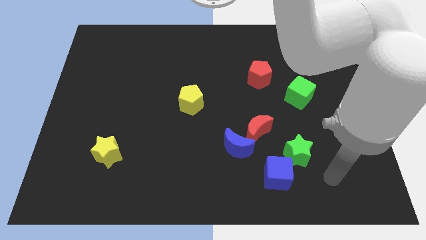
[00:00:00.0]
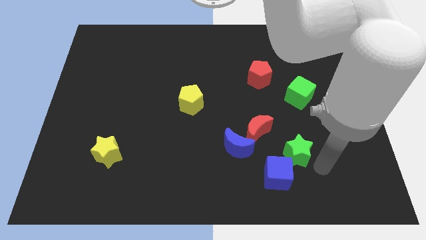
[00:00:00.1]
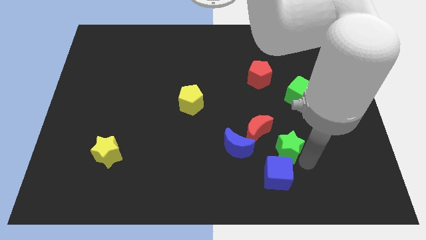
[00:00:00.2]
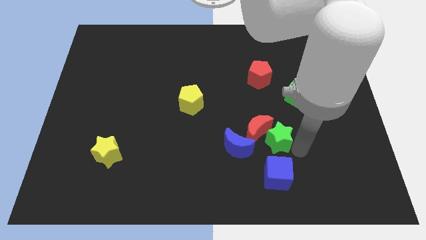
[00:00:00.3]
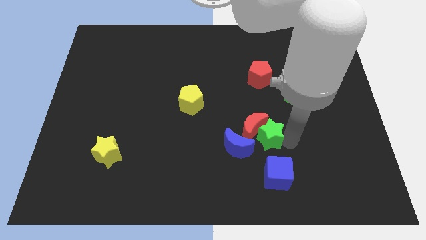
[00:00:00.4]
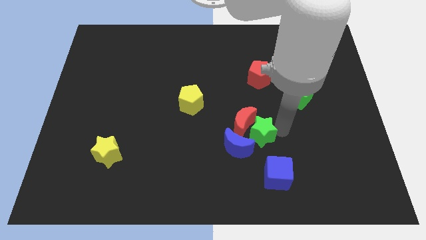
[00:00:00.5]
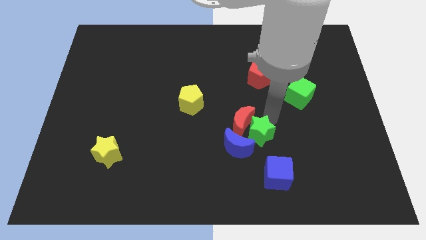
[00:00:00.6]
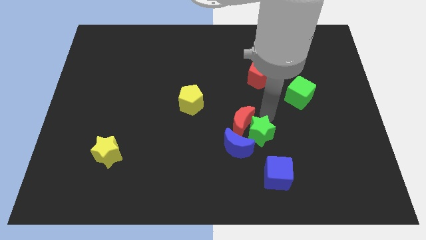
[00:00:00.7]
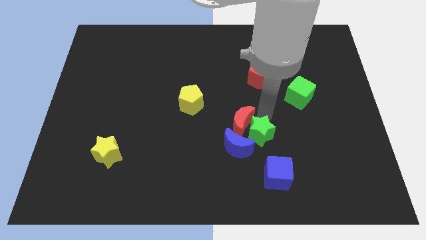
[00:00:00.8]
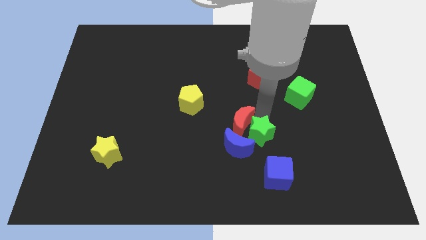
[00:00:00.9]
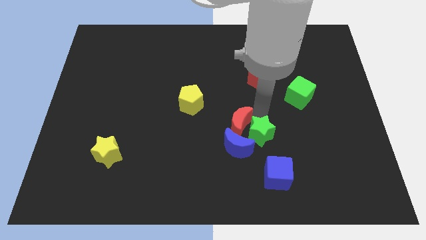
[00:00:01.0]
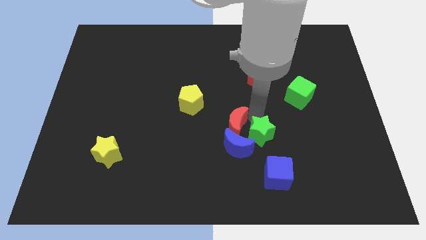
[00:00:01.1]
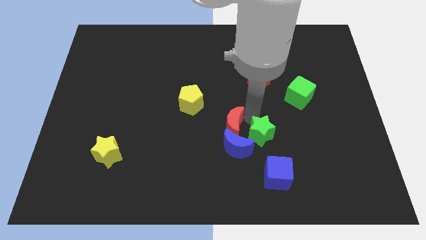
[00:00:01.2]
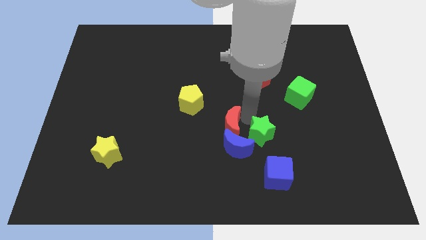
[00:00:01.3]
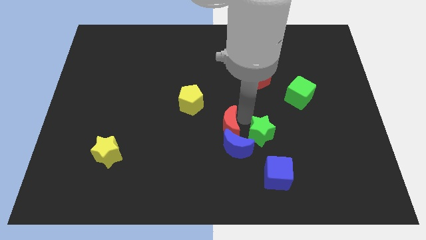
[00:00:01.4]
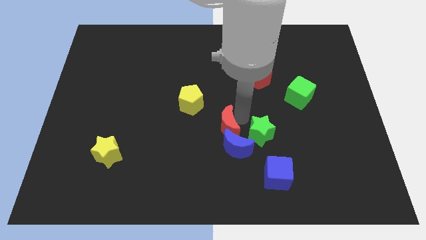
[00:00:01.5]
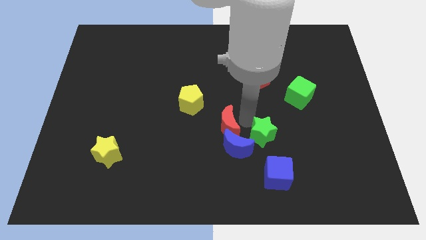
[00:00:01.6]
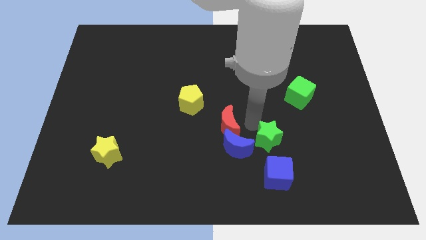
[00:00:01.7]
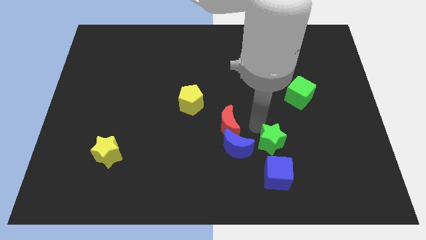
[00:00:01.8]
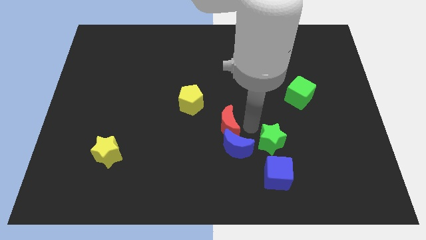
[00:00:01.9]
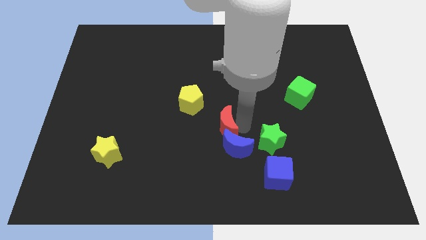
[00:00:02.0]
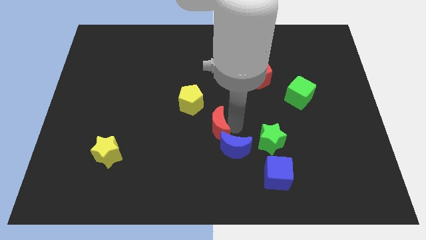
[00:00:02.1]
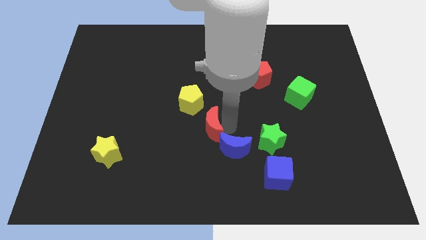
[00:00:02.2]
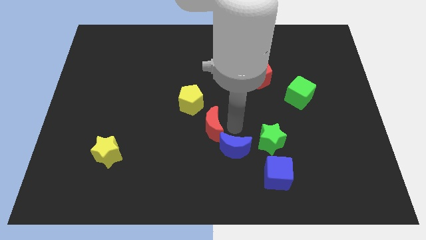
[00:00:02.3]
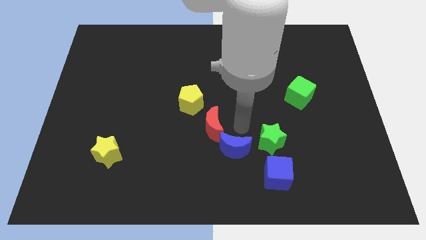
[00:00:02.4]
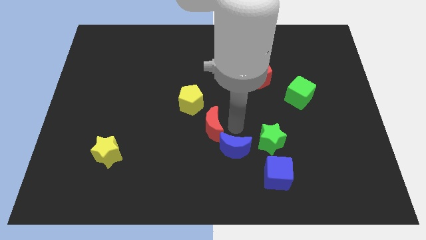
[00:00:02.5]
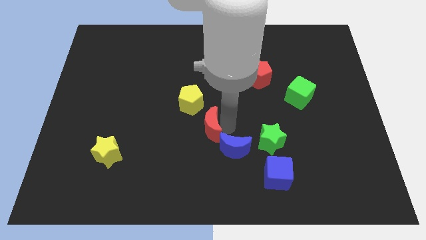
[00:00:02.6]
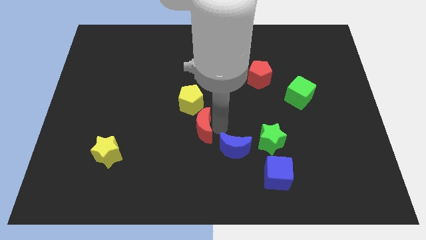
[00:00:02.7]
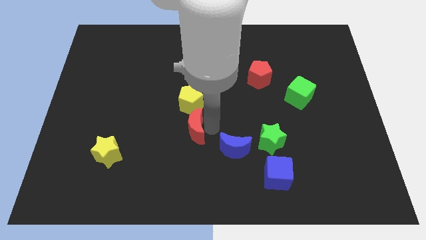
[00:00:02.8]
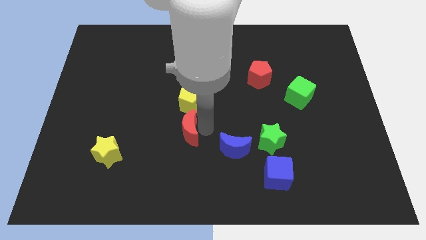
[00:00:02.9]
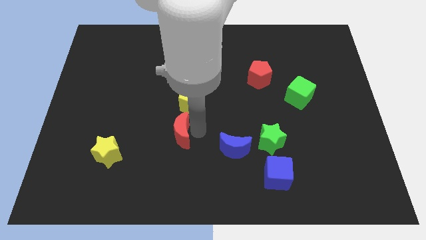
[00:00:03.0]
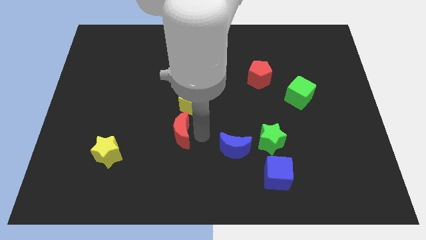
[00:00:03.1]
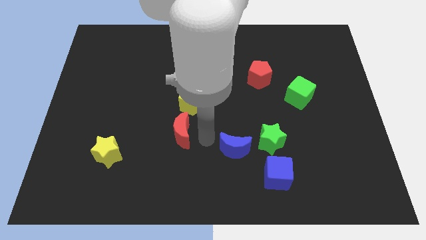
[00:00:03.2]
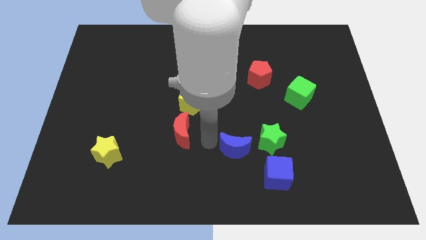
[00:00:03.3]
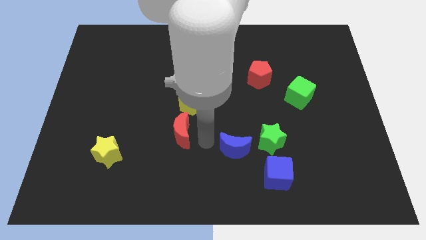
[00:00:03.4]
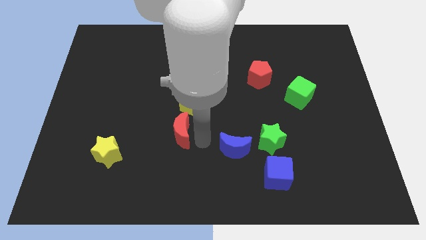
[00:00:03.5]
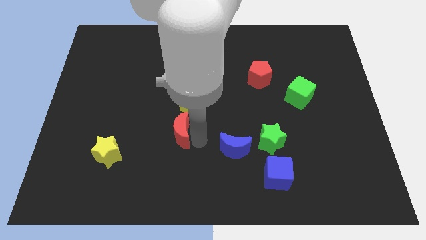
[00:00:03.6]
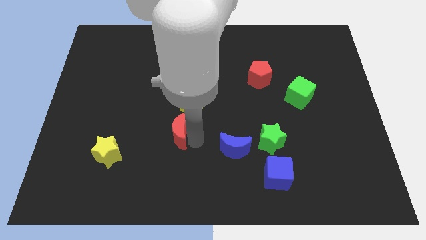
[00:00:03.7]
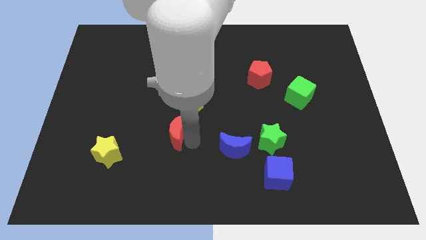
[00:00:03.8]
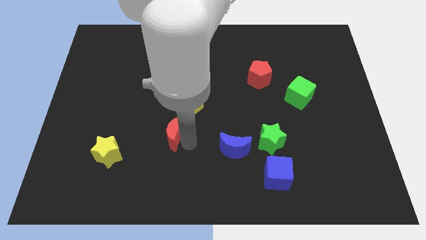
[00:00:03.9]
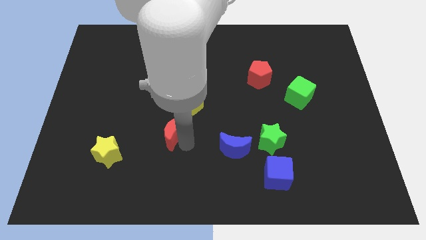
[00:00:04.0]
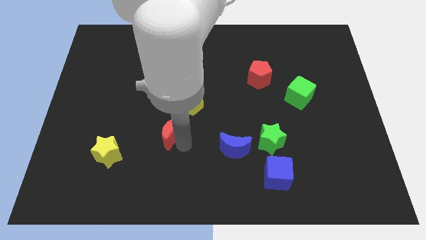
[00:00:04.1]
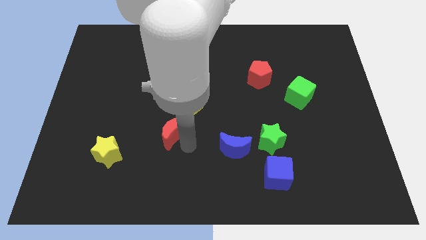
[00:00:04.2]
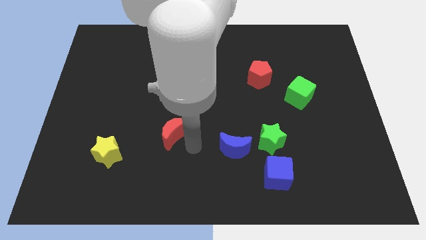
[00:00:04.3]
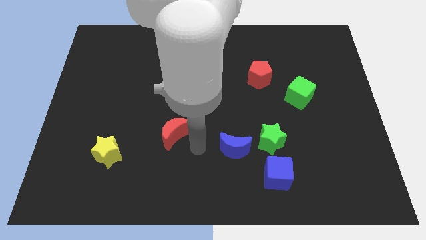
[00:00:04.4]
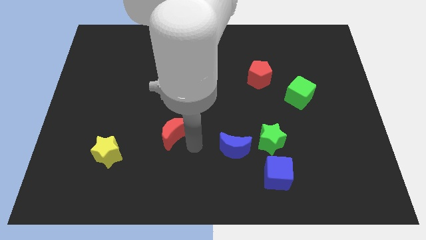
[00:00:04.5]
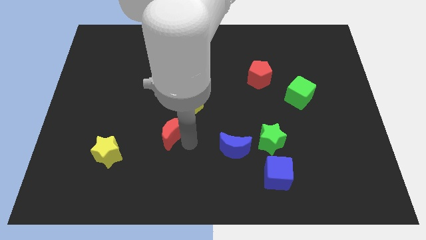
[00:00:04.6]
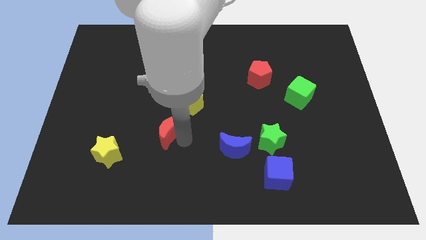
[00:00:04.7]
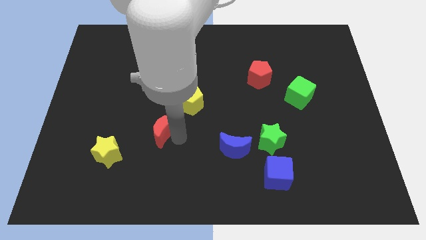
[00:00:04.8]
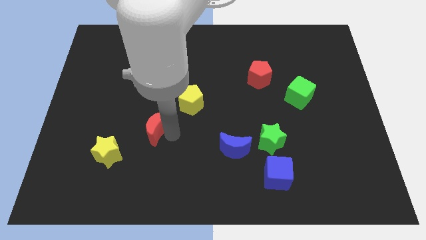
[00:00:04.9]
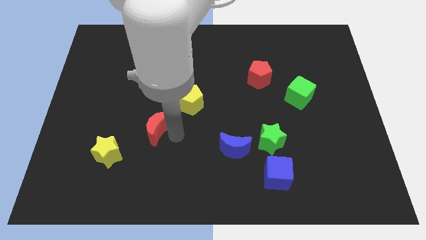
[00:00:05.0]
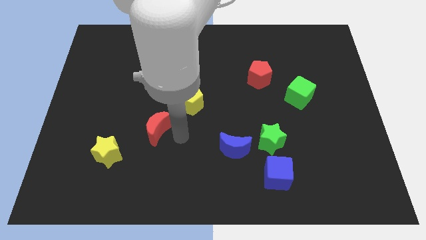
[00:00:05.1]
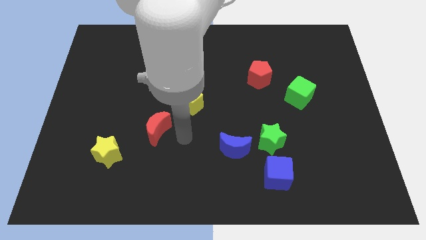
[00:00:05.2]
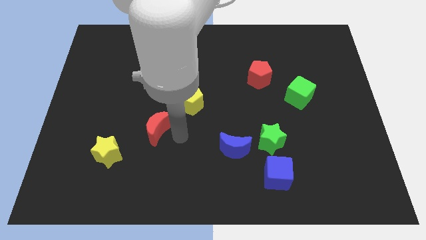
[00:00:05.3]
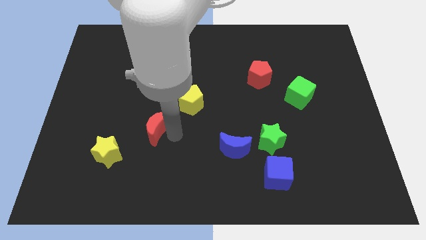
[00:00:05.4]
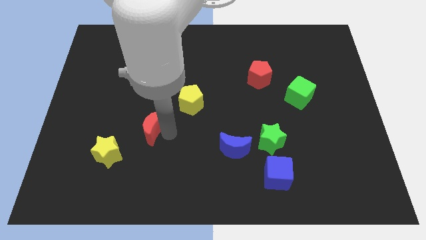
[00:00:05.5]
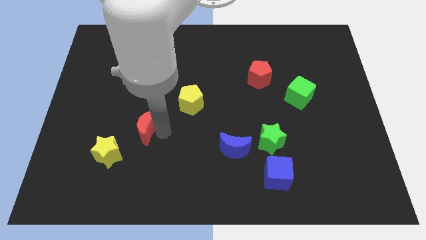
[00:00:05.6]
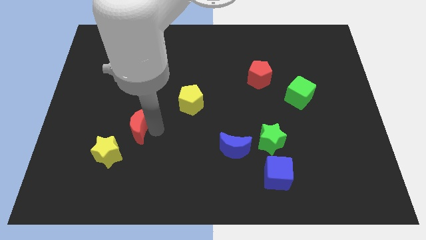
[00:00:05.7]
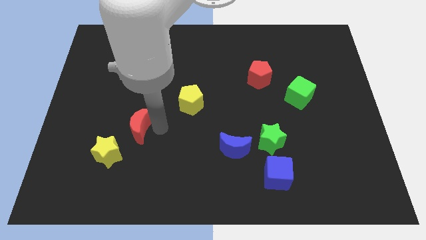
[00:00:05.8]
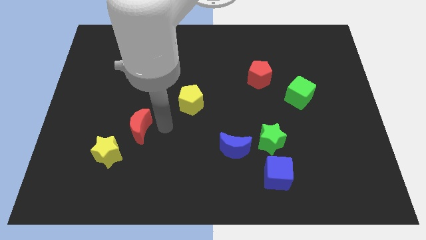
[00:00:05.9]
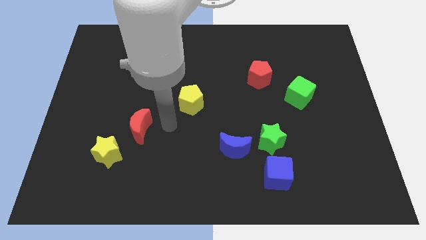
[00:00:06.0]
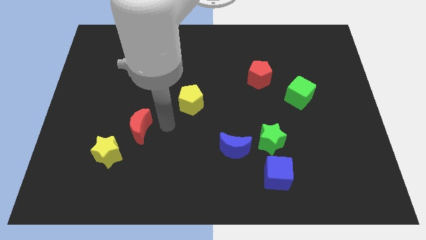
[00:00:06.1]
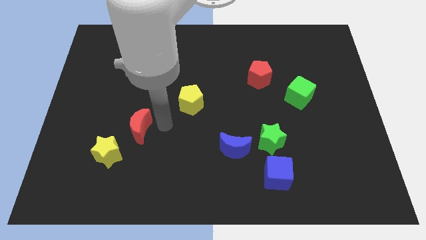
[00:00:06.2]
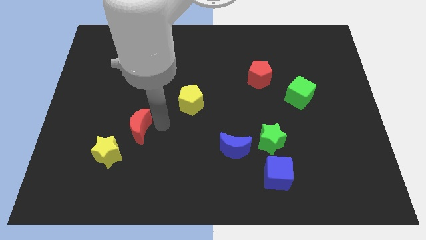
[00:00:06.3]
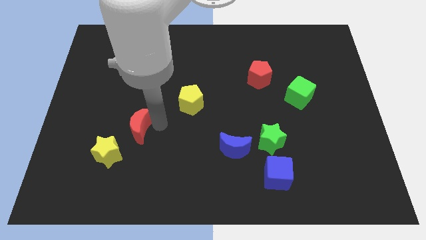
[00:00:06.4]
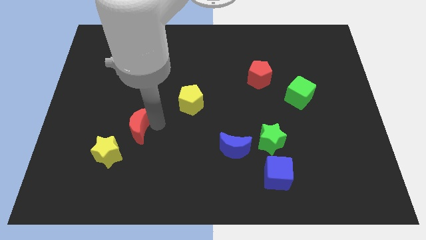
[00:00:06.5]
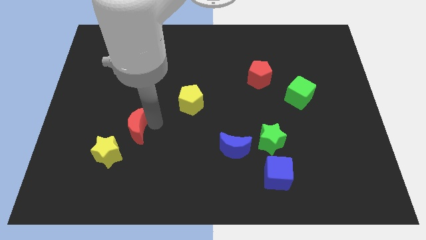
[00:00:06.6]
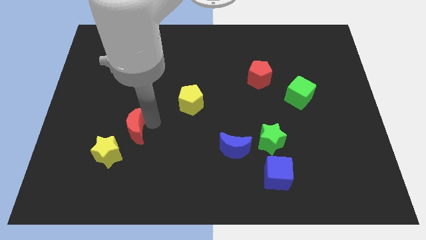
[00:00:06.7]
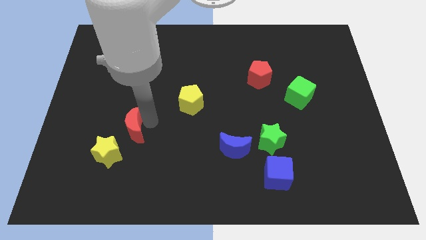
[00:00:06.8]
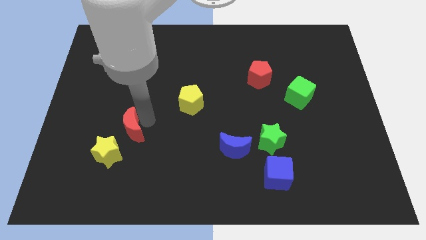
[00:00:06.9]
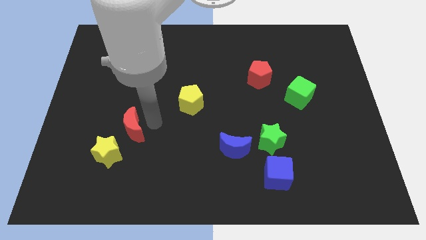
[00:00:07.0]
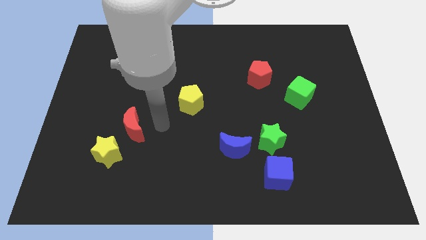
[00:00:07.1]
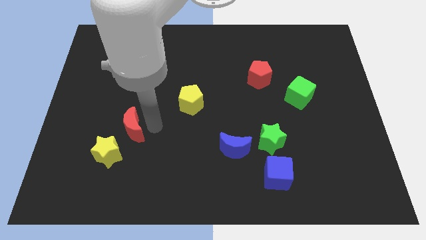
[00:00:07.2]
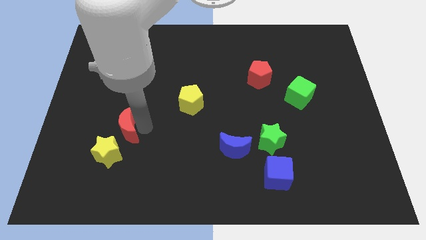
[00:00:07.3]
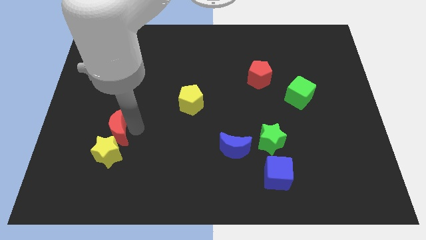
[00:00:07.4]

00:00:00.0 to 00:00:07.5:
slide the red moon to the top left of the yellow star

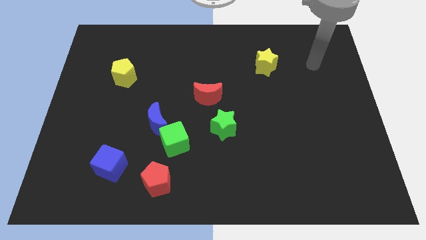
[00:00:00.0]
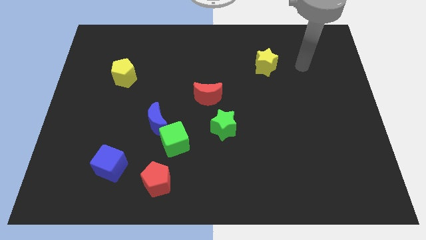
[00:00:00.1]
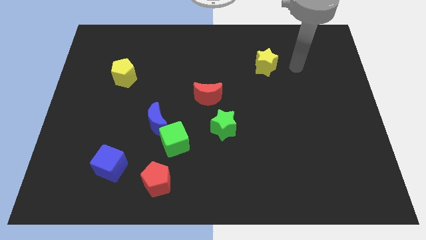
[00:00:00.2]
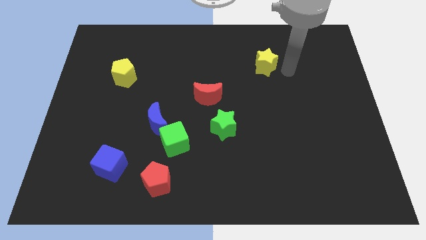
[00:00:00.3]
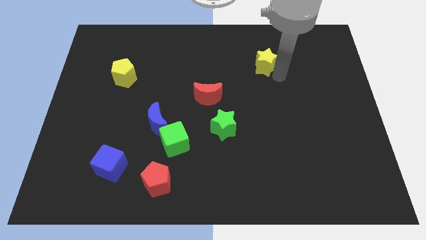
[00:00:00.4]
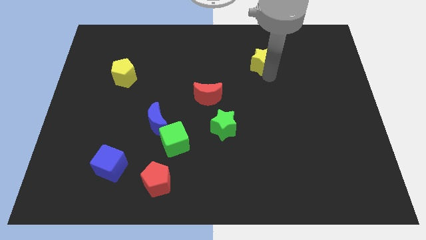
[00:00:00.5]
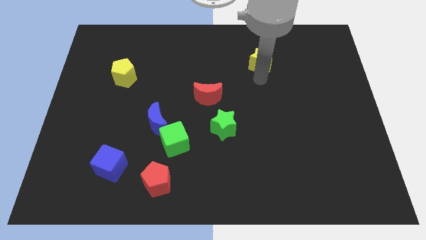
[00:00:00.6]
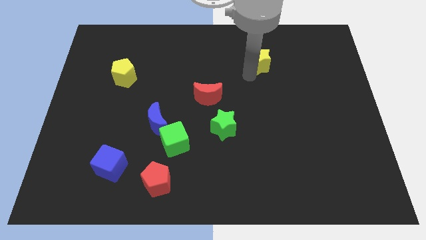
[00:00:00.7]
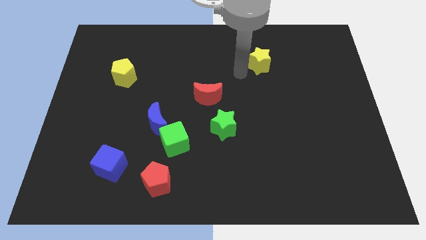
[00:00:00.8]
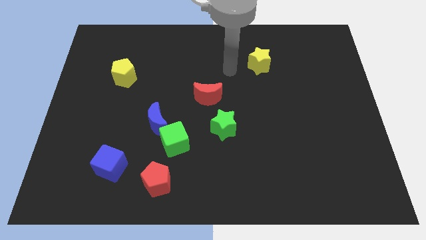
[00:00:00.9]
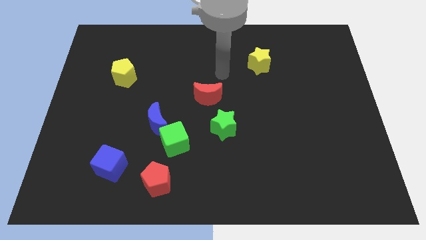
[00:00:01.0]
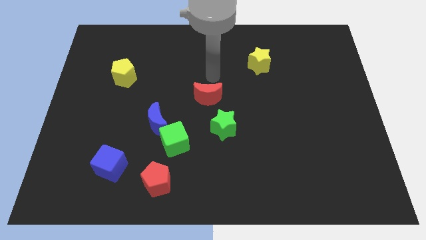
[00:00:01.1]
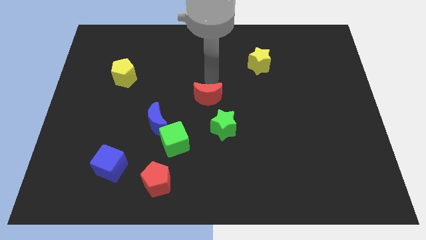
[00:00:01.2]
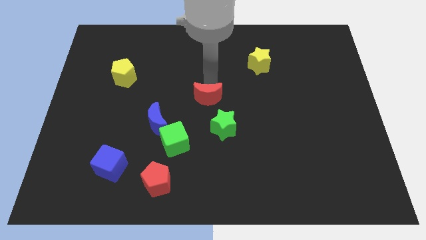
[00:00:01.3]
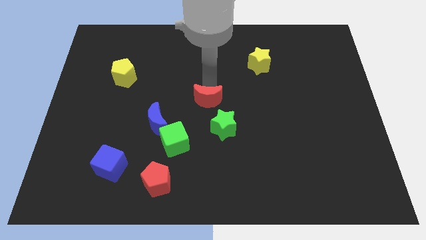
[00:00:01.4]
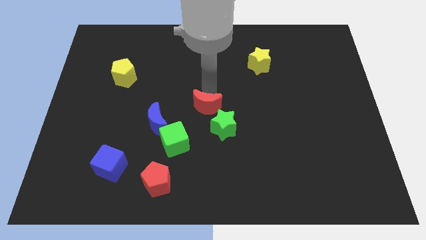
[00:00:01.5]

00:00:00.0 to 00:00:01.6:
push the red moon to the top right side of the green cube
